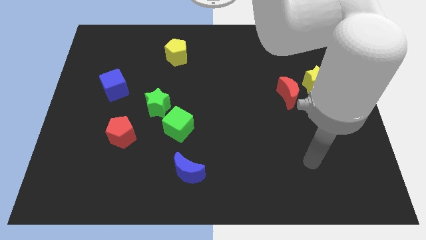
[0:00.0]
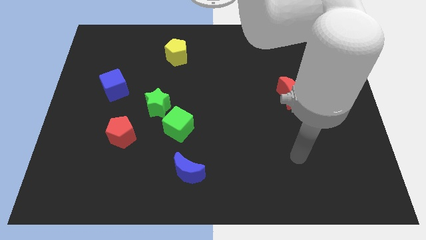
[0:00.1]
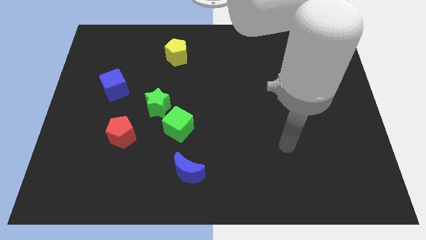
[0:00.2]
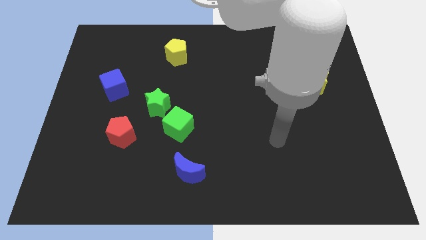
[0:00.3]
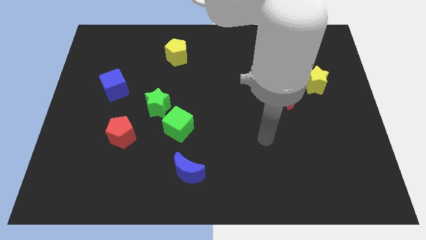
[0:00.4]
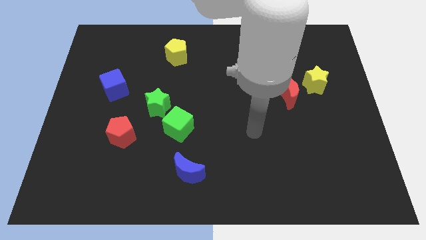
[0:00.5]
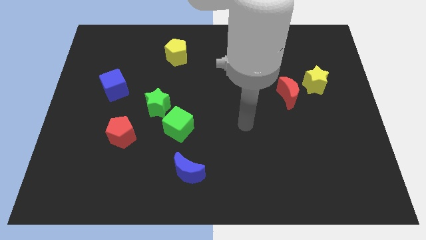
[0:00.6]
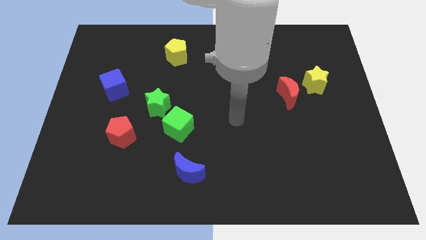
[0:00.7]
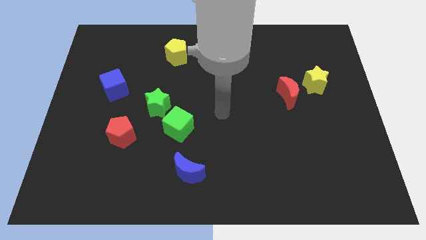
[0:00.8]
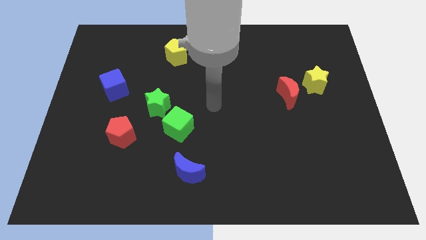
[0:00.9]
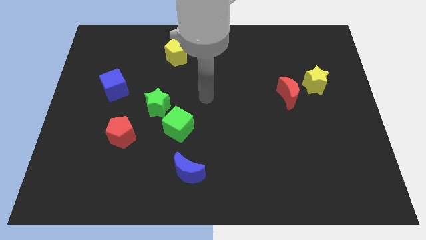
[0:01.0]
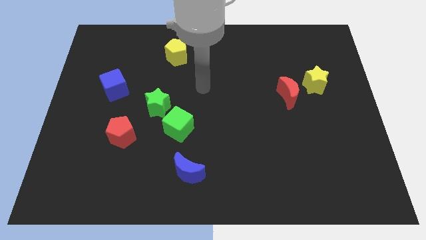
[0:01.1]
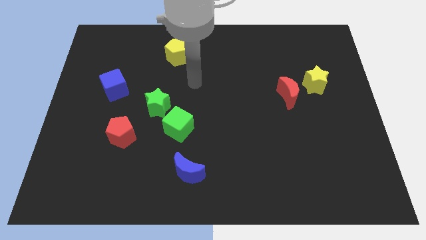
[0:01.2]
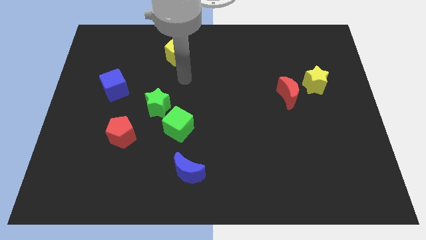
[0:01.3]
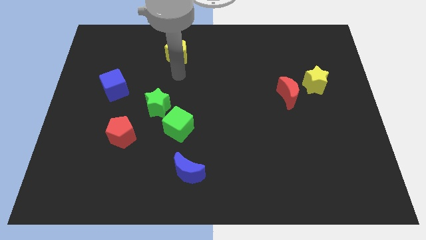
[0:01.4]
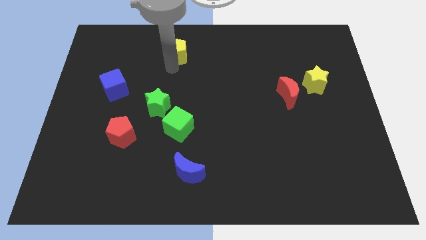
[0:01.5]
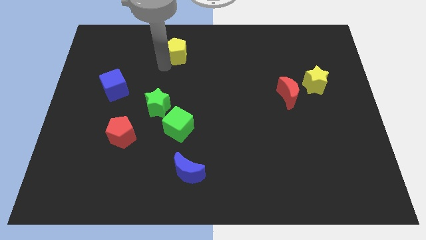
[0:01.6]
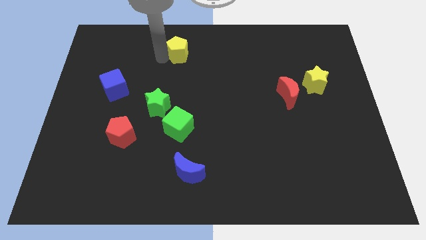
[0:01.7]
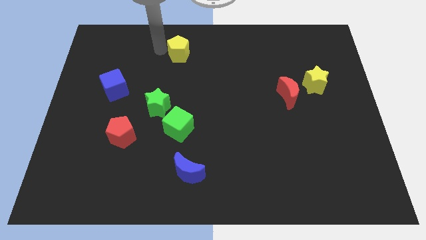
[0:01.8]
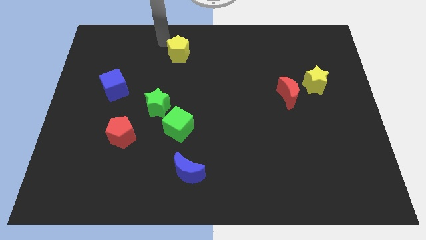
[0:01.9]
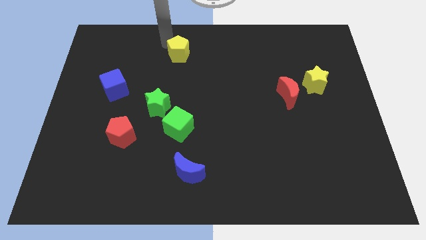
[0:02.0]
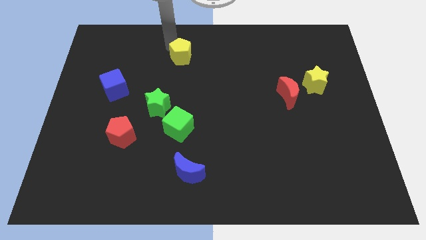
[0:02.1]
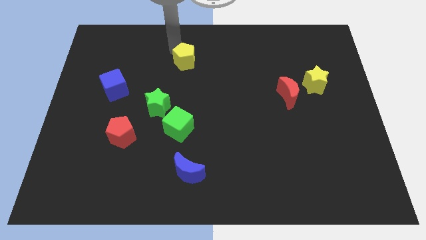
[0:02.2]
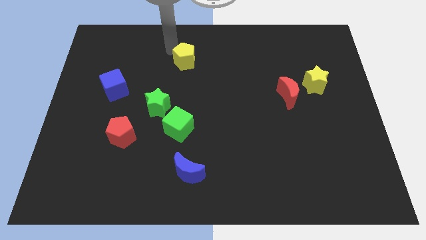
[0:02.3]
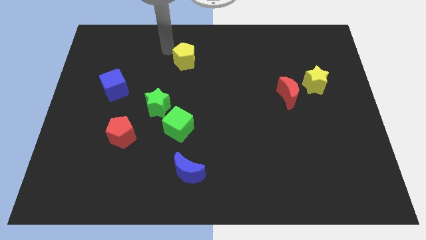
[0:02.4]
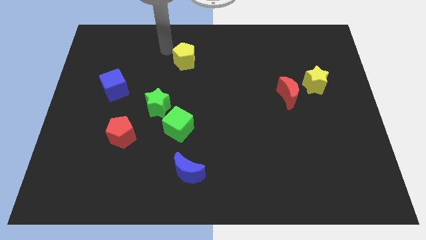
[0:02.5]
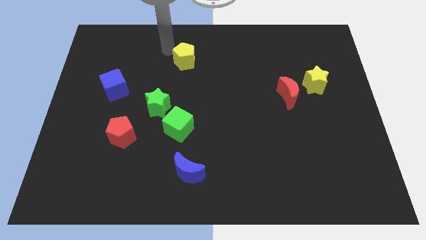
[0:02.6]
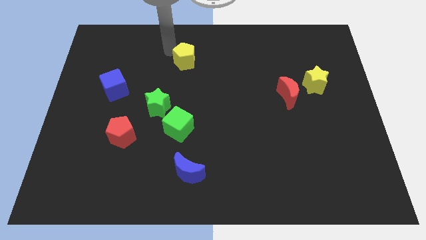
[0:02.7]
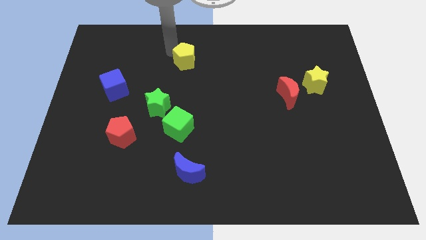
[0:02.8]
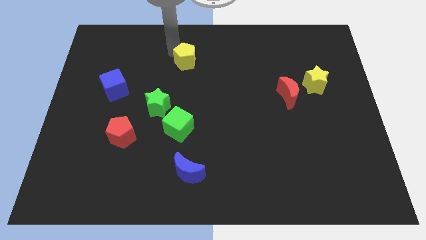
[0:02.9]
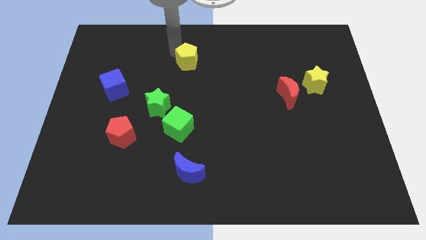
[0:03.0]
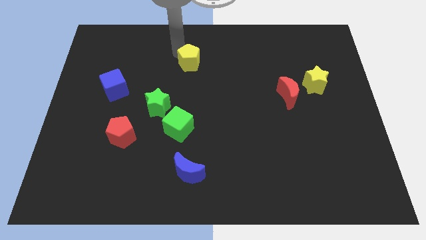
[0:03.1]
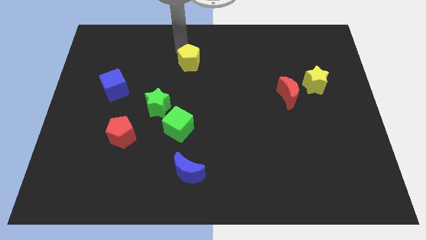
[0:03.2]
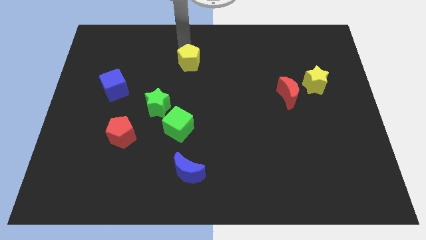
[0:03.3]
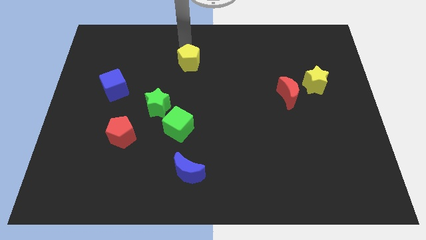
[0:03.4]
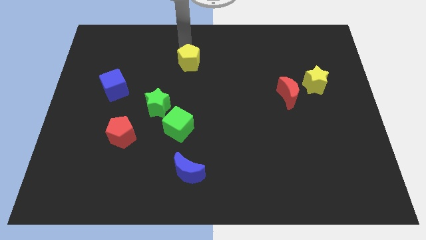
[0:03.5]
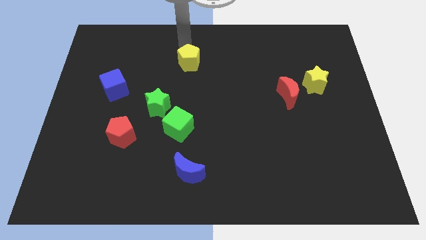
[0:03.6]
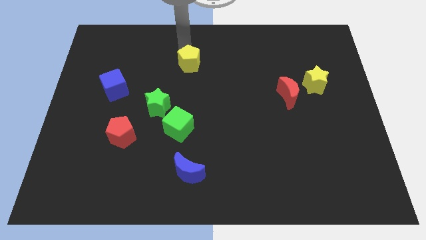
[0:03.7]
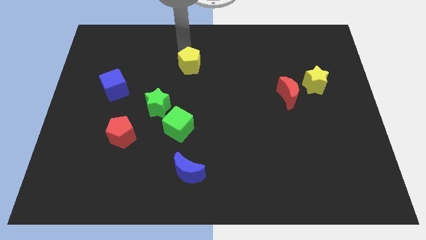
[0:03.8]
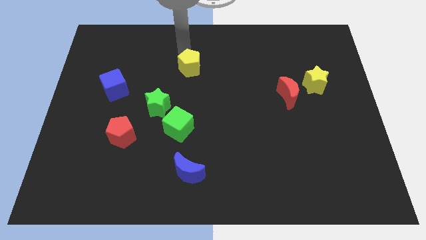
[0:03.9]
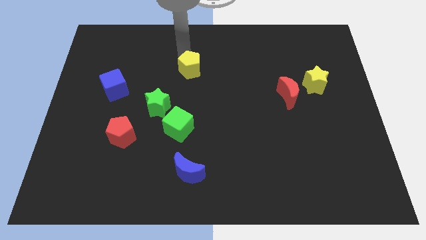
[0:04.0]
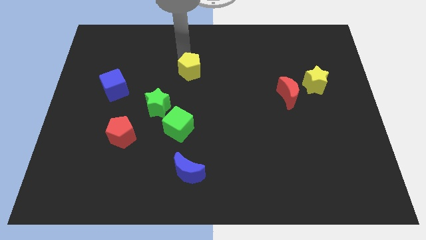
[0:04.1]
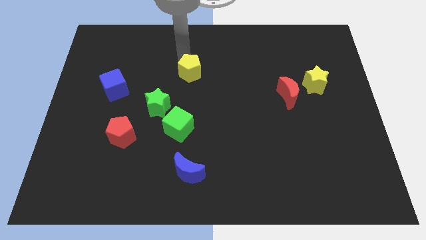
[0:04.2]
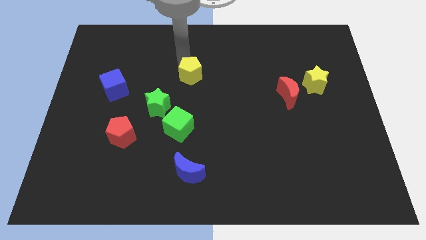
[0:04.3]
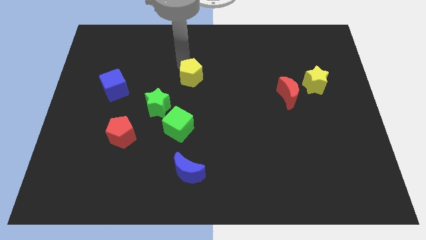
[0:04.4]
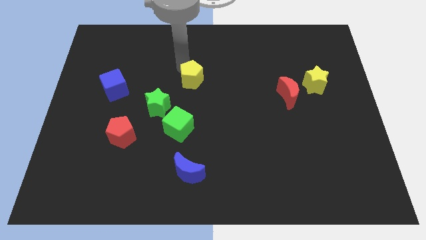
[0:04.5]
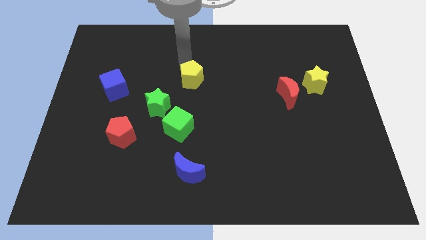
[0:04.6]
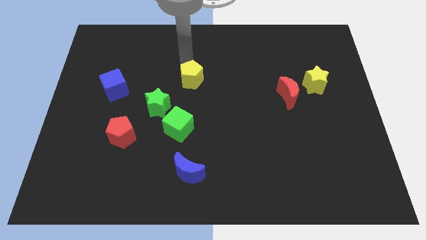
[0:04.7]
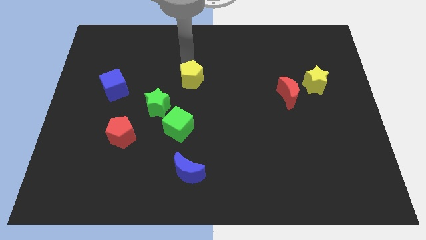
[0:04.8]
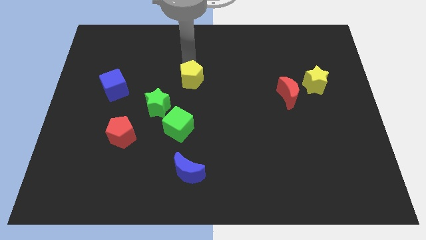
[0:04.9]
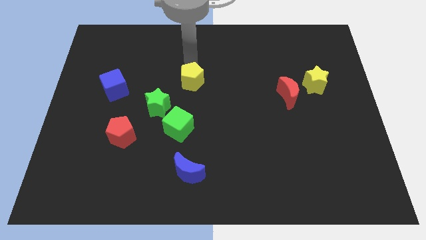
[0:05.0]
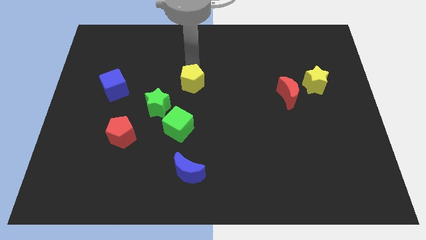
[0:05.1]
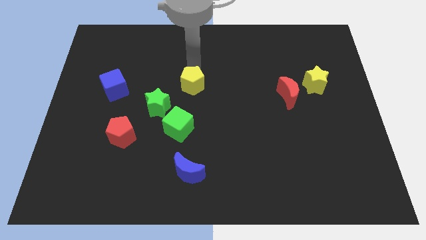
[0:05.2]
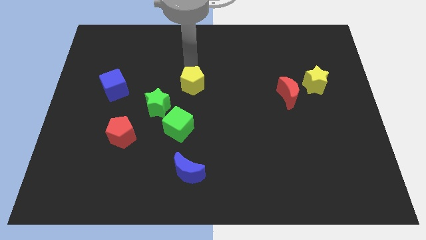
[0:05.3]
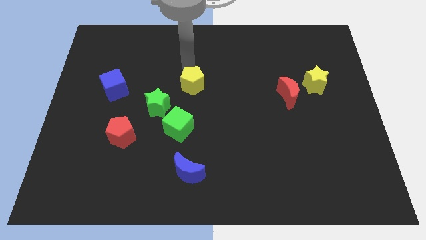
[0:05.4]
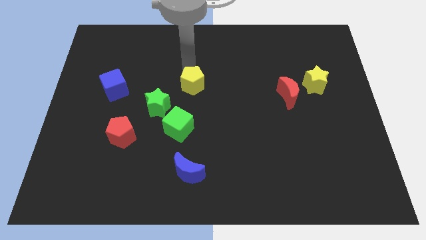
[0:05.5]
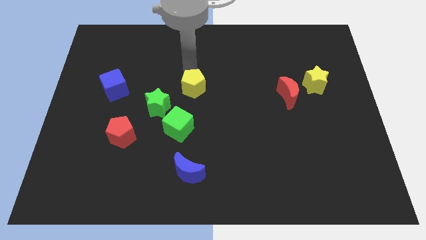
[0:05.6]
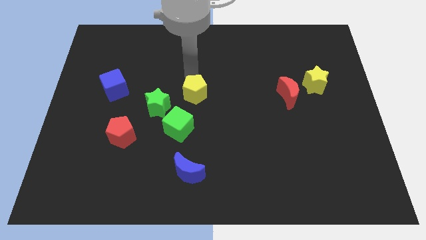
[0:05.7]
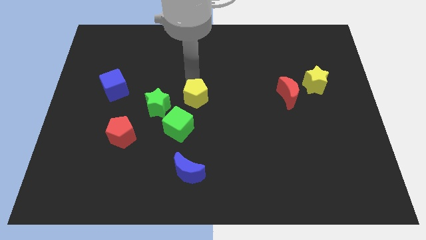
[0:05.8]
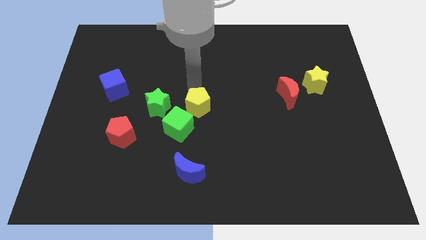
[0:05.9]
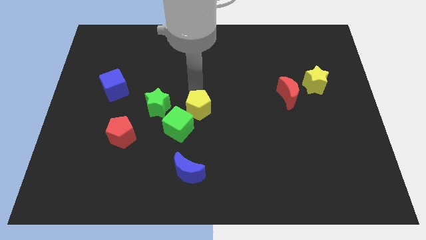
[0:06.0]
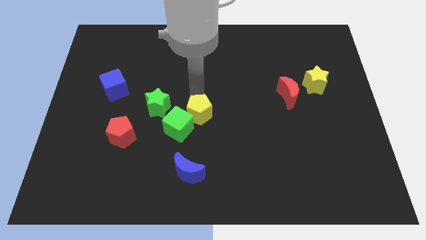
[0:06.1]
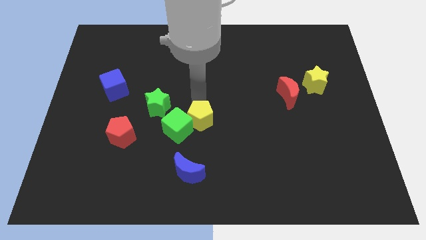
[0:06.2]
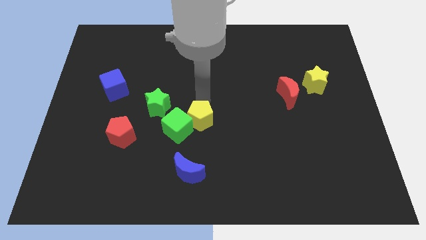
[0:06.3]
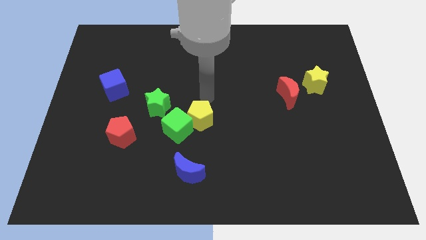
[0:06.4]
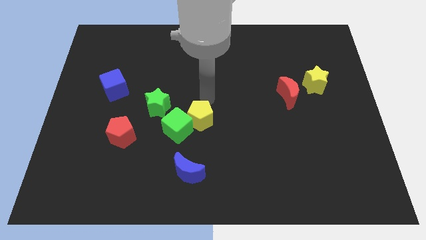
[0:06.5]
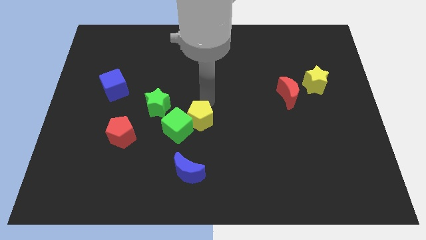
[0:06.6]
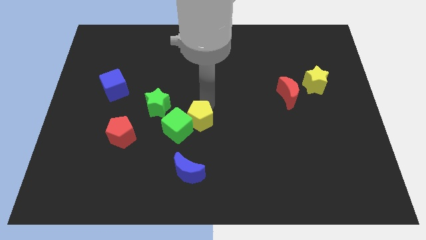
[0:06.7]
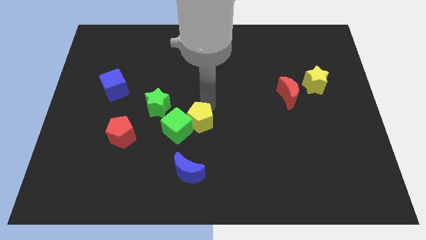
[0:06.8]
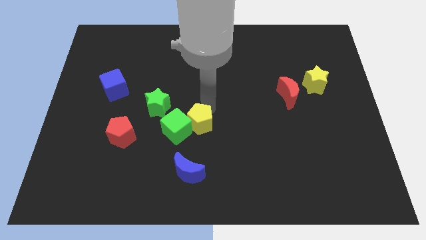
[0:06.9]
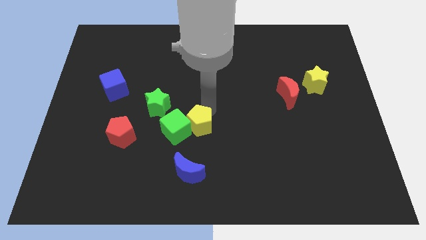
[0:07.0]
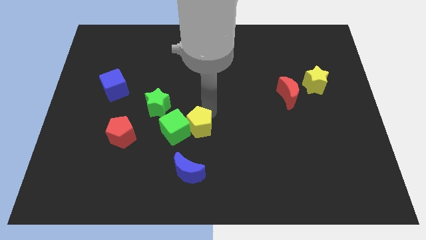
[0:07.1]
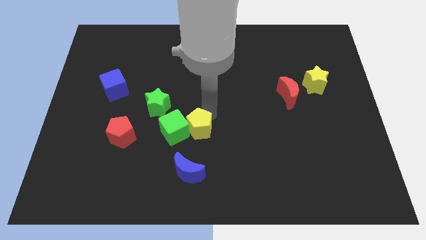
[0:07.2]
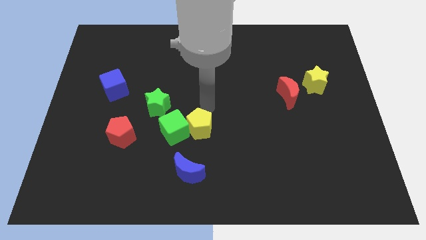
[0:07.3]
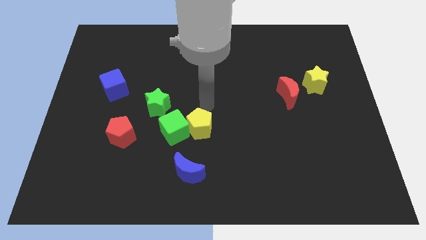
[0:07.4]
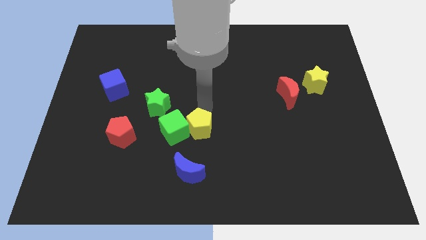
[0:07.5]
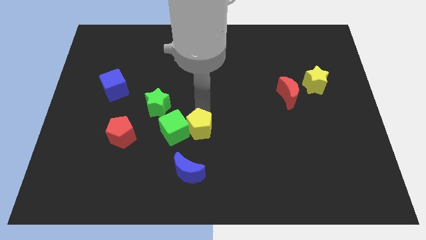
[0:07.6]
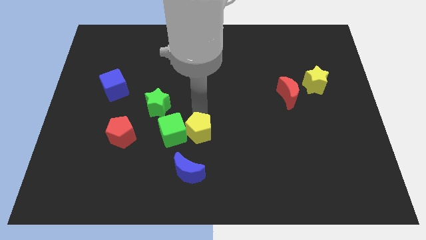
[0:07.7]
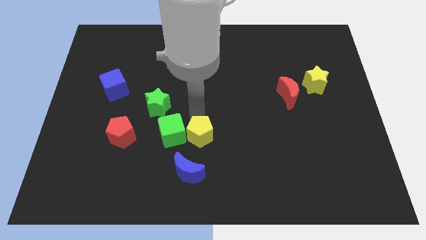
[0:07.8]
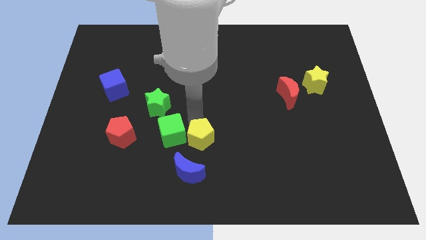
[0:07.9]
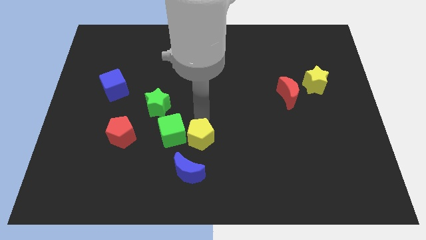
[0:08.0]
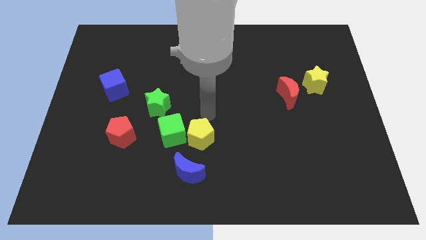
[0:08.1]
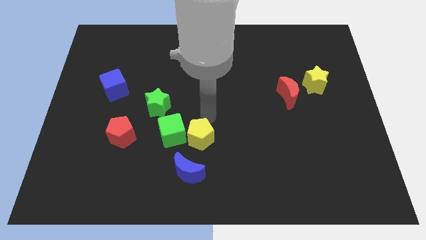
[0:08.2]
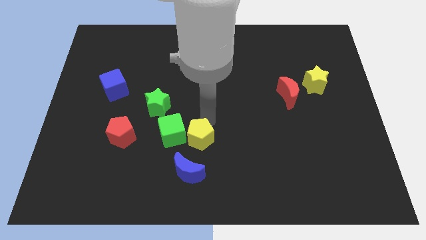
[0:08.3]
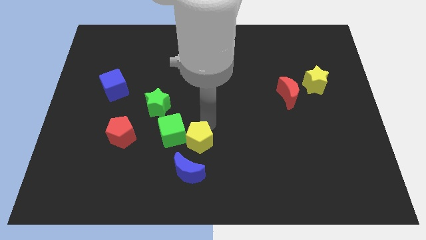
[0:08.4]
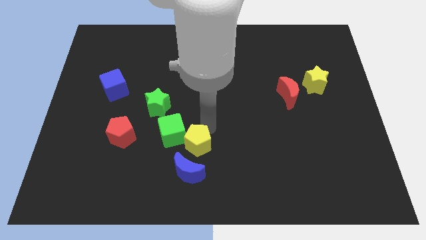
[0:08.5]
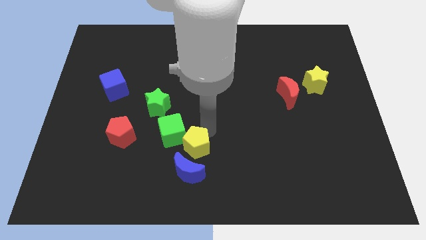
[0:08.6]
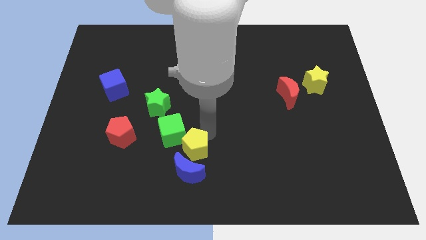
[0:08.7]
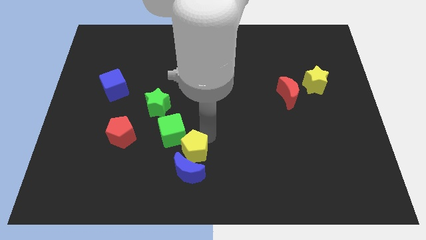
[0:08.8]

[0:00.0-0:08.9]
move the yellow pentagon next to the blue moon
